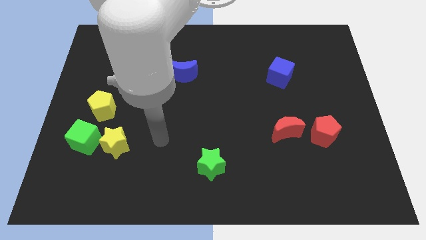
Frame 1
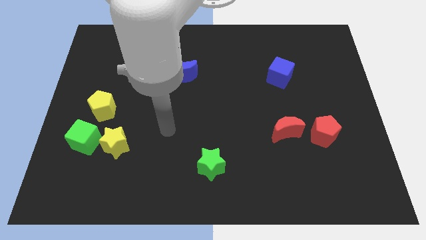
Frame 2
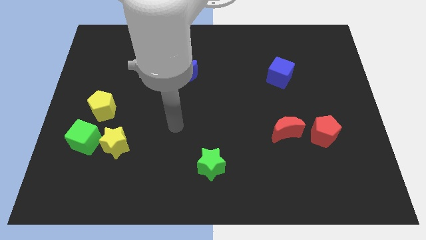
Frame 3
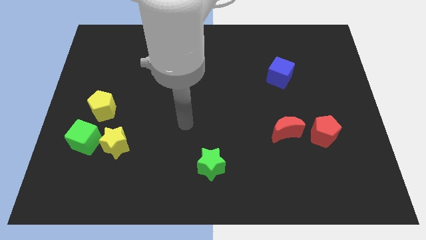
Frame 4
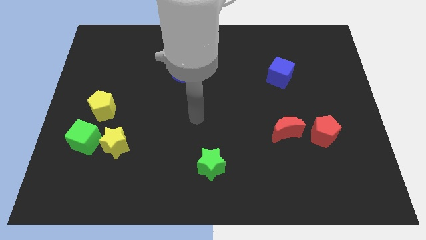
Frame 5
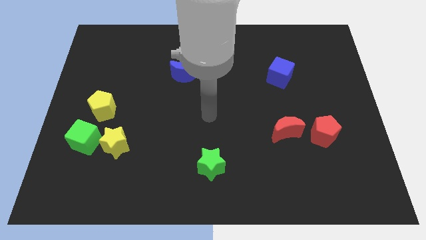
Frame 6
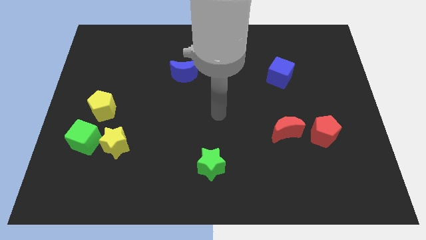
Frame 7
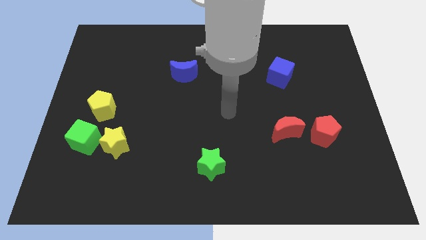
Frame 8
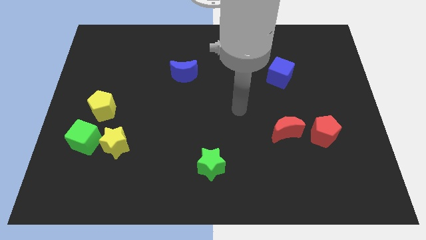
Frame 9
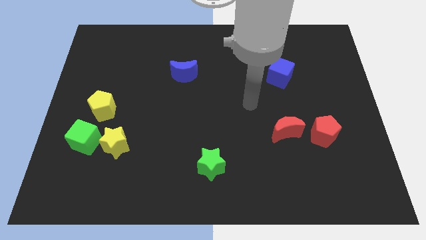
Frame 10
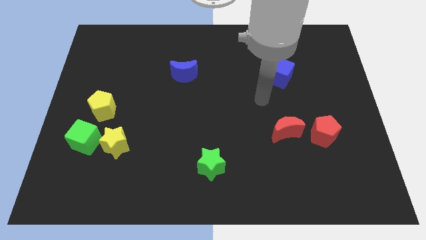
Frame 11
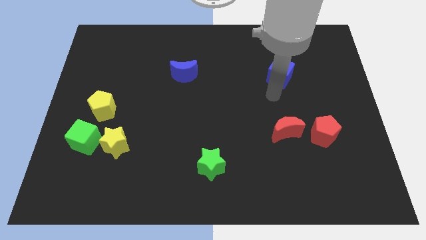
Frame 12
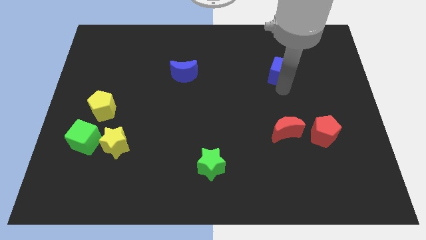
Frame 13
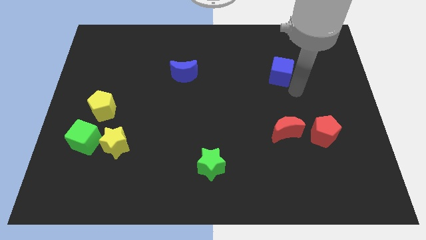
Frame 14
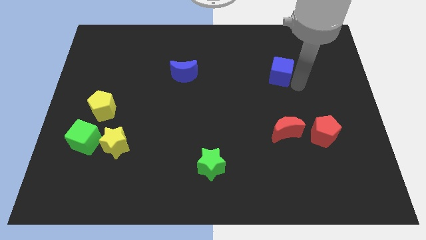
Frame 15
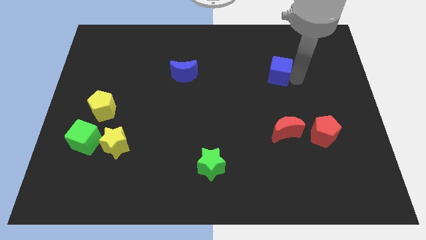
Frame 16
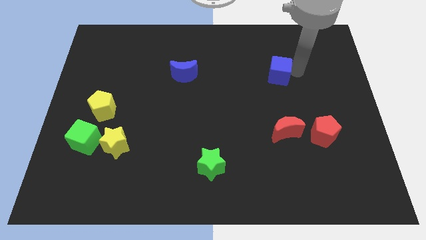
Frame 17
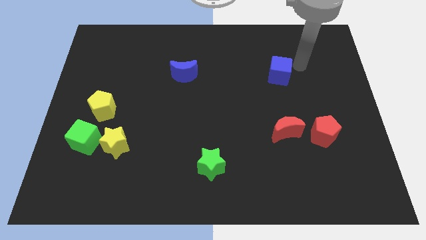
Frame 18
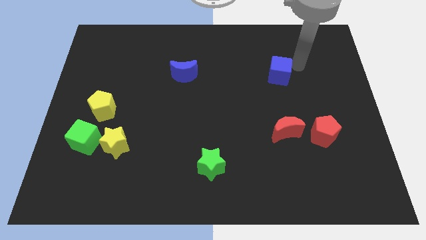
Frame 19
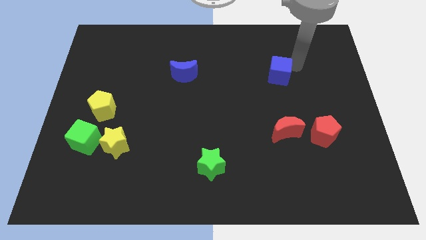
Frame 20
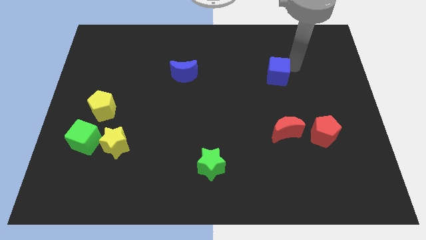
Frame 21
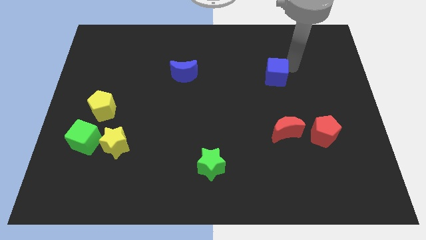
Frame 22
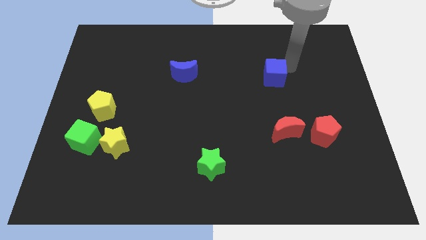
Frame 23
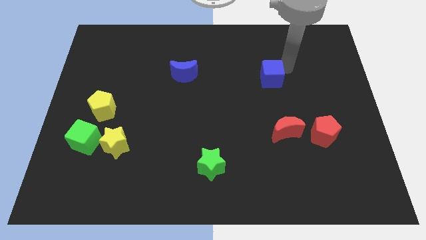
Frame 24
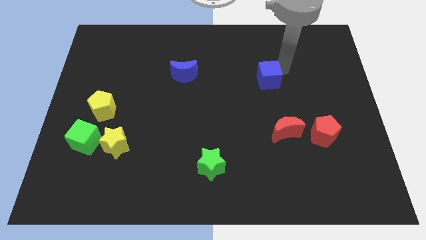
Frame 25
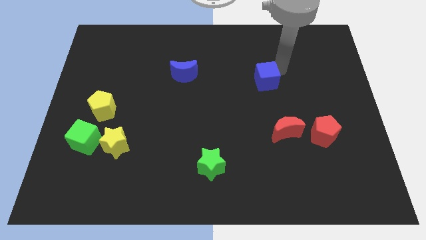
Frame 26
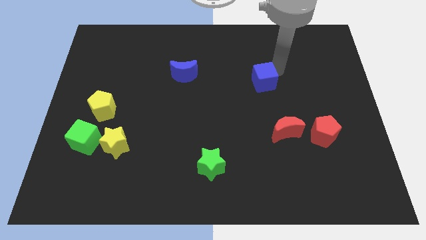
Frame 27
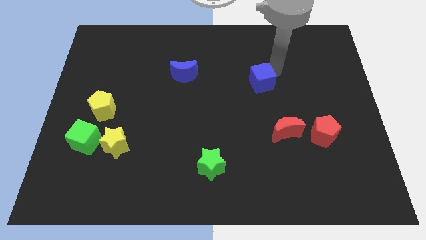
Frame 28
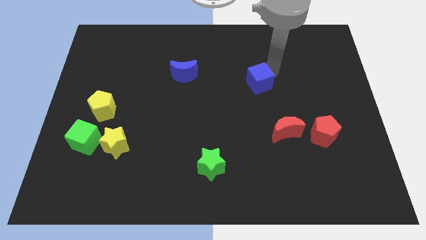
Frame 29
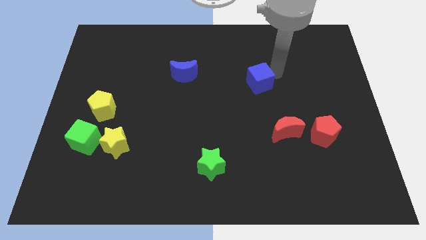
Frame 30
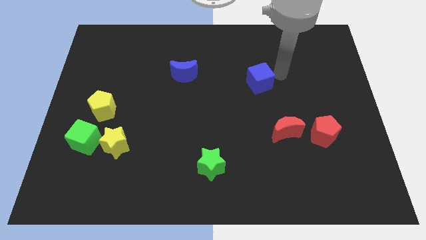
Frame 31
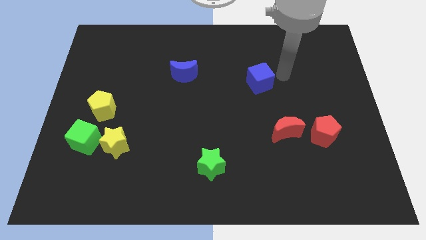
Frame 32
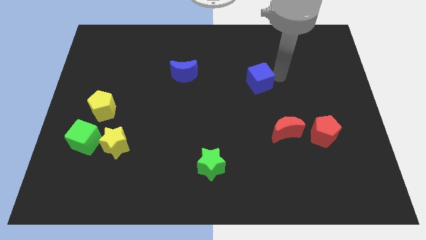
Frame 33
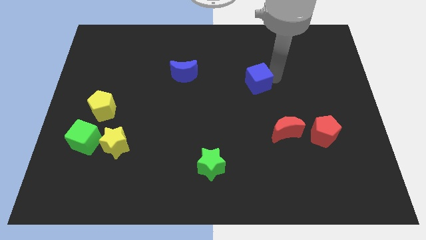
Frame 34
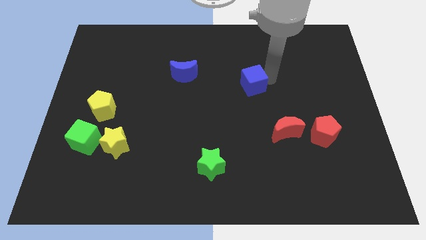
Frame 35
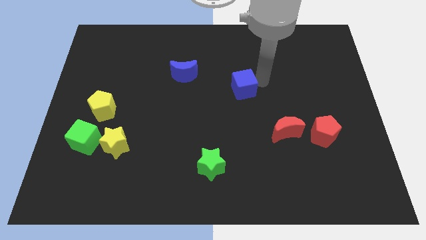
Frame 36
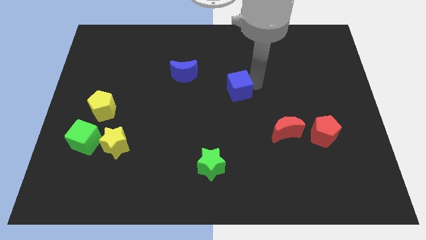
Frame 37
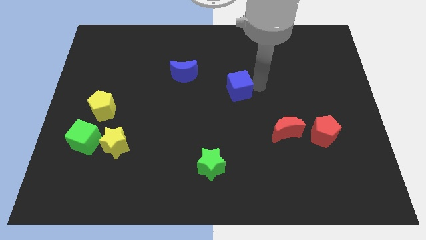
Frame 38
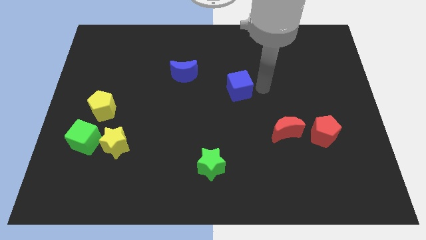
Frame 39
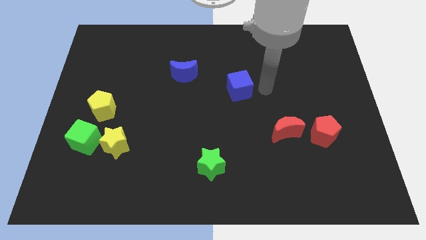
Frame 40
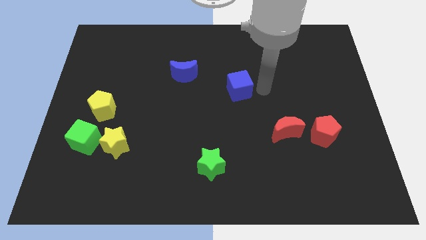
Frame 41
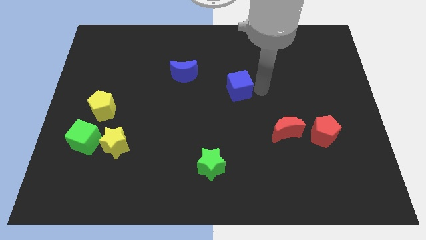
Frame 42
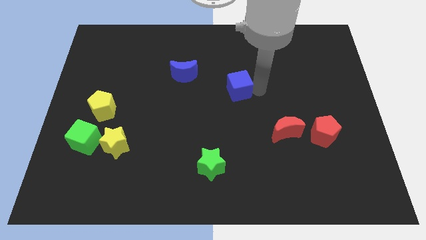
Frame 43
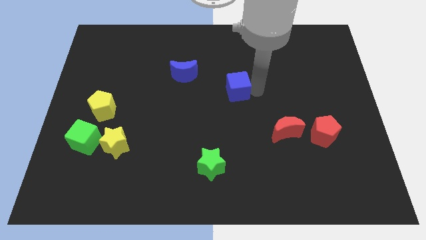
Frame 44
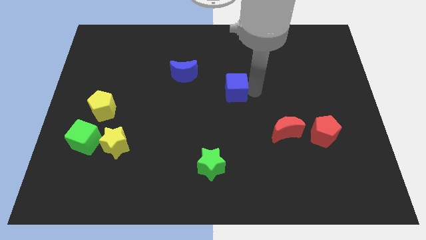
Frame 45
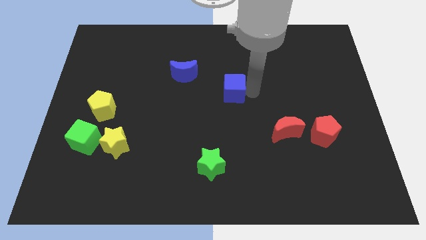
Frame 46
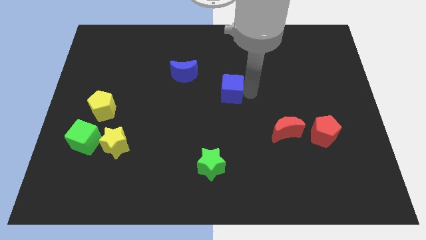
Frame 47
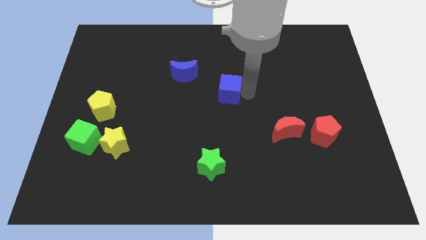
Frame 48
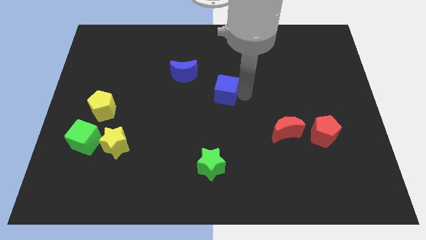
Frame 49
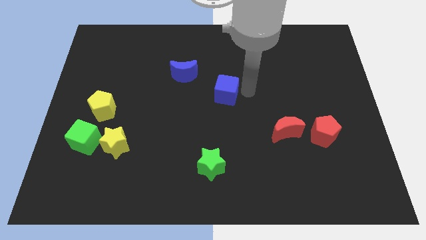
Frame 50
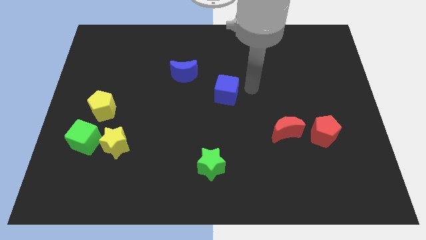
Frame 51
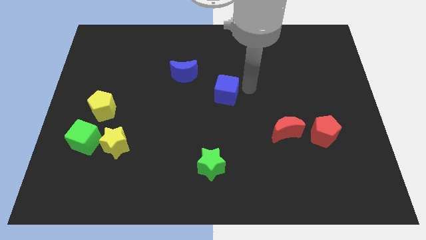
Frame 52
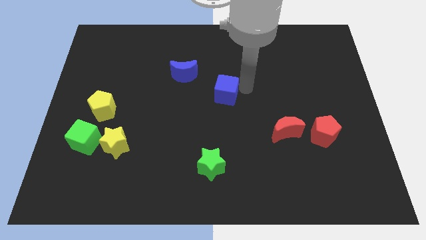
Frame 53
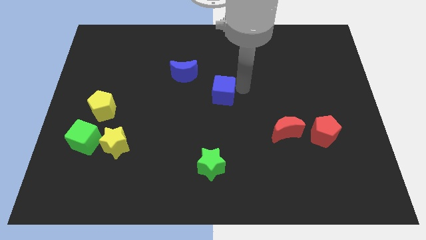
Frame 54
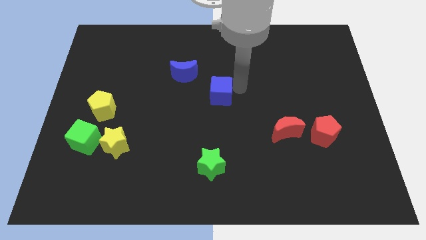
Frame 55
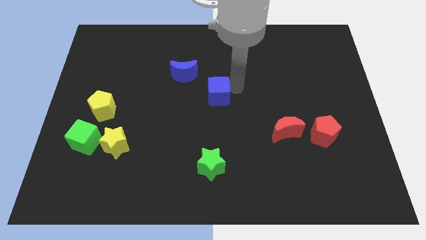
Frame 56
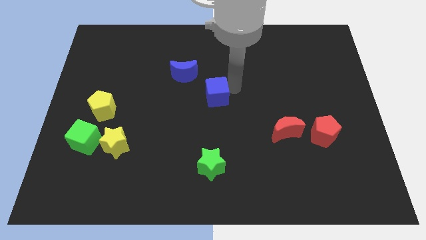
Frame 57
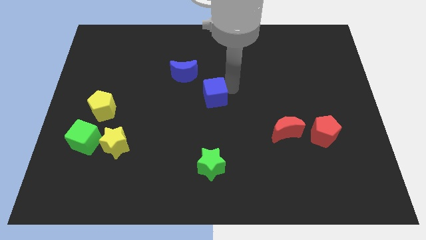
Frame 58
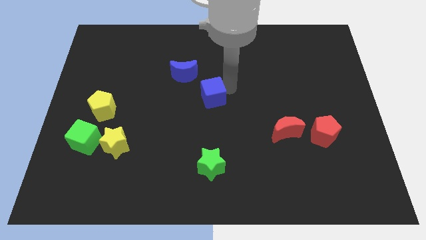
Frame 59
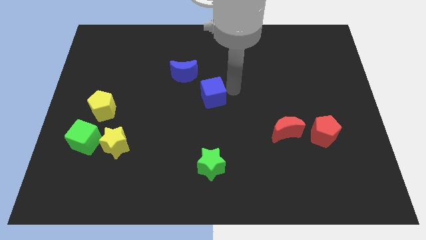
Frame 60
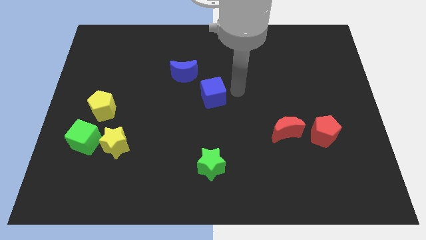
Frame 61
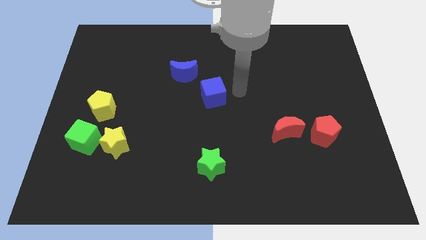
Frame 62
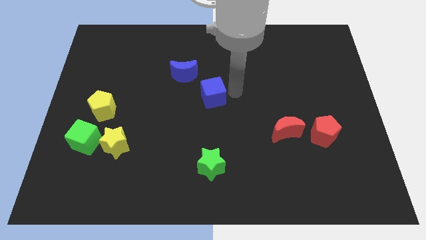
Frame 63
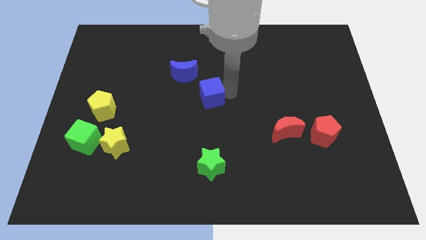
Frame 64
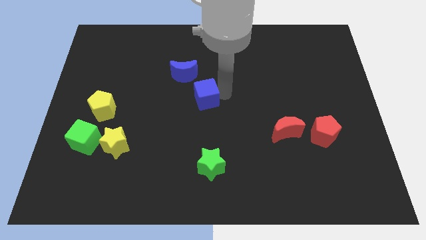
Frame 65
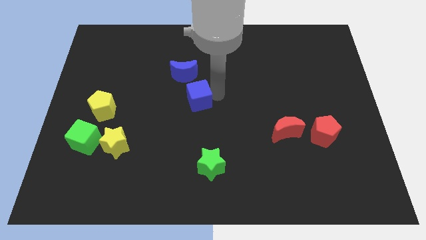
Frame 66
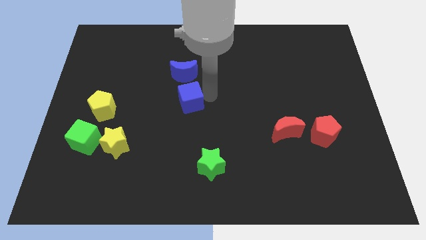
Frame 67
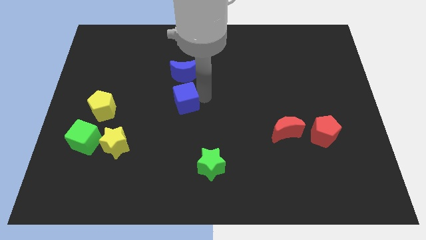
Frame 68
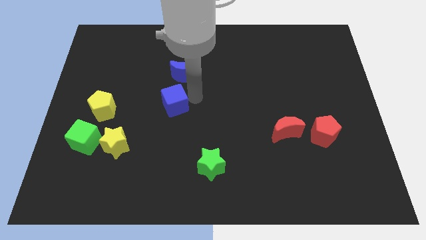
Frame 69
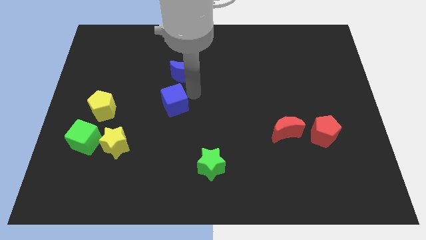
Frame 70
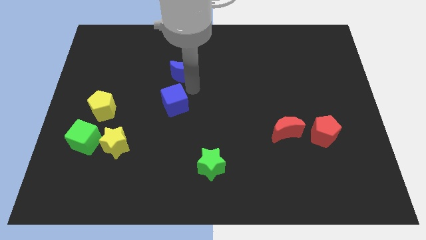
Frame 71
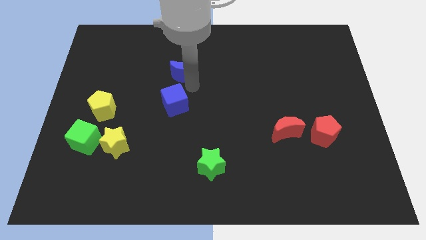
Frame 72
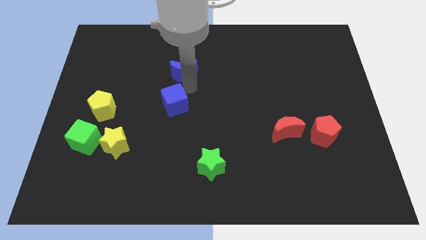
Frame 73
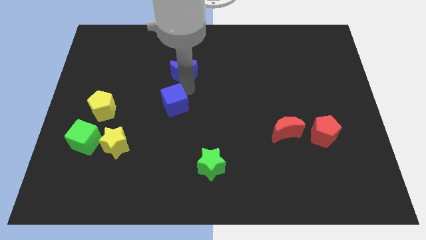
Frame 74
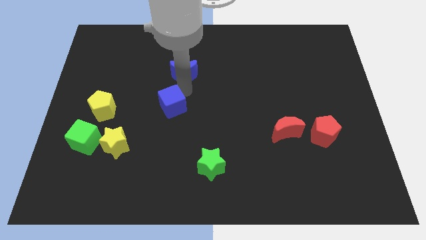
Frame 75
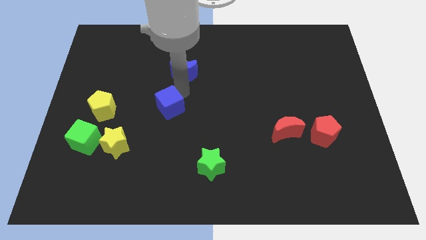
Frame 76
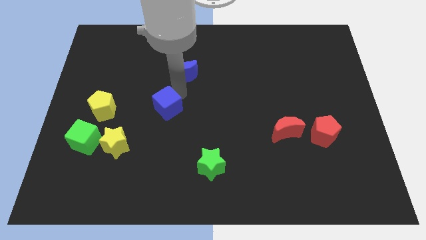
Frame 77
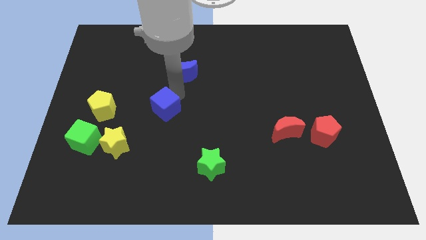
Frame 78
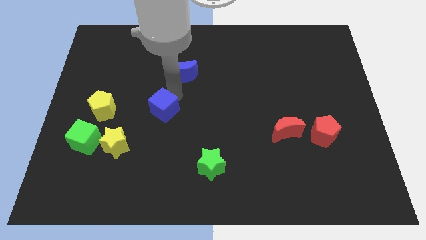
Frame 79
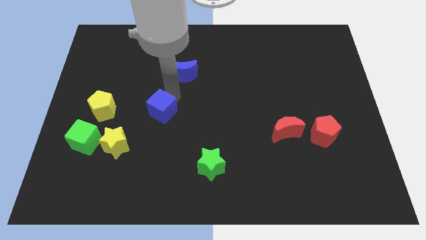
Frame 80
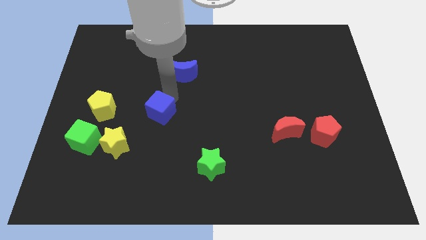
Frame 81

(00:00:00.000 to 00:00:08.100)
push the blue cube diagonally up and to the right of the yellow star
